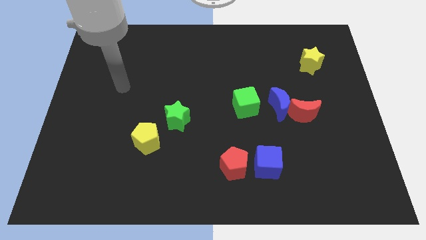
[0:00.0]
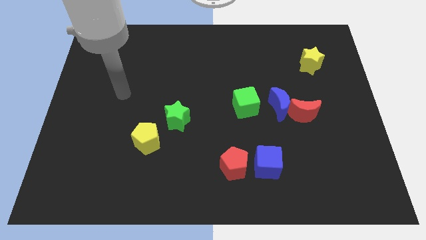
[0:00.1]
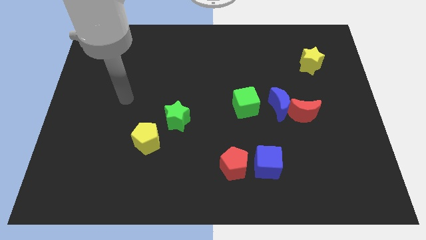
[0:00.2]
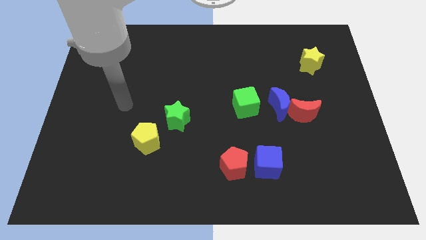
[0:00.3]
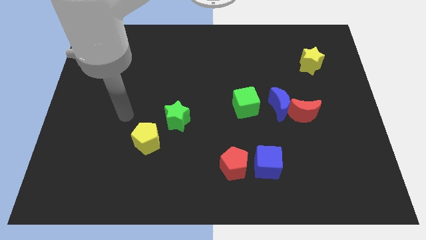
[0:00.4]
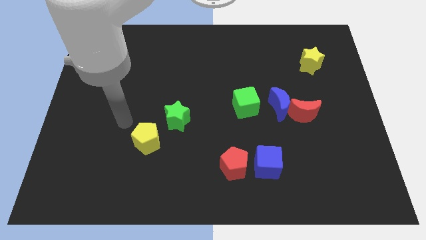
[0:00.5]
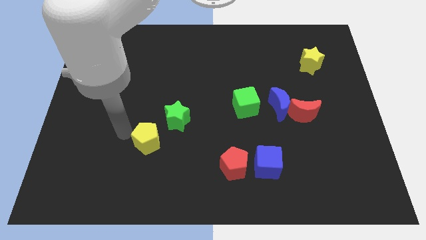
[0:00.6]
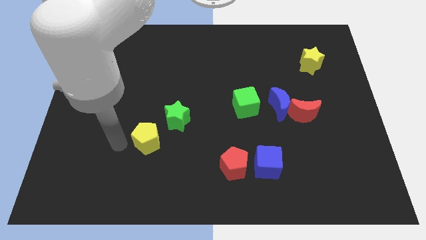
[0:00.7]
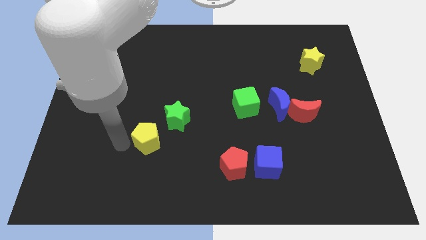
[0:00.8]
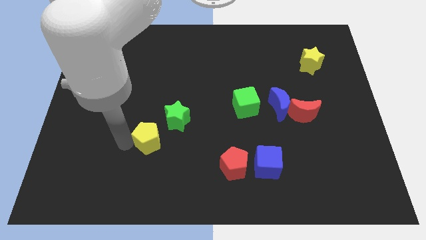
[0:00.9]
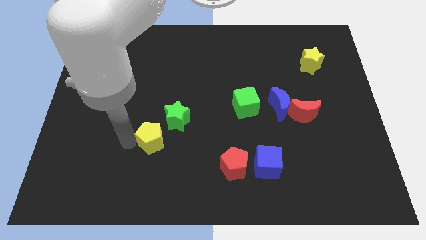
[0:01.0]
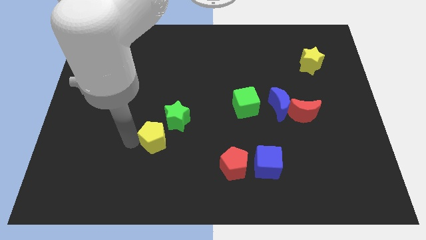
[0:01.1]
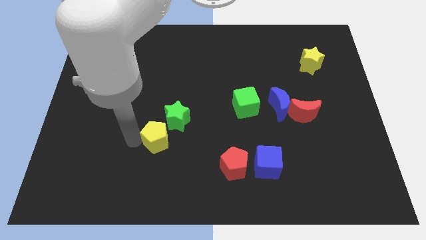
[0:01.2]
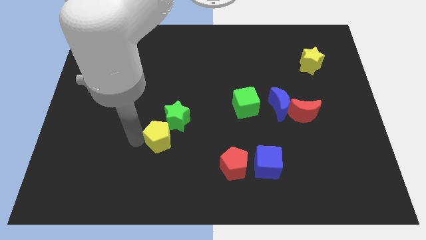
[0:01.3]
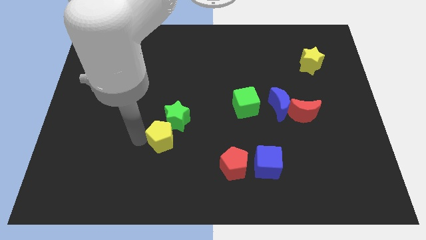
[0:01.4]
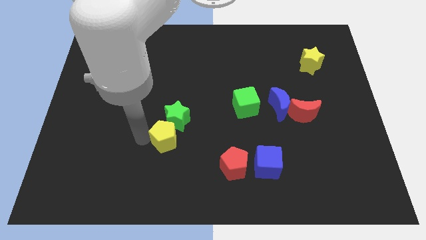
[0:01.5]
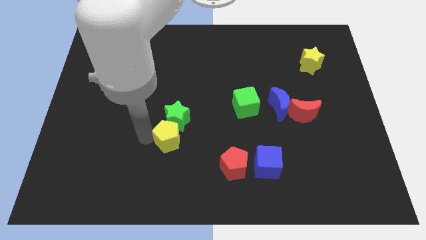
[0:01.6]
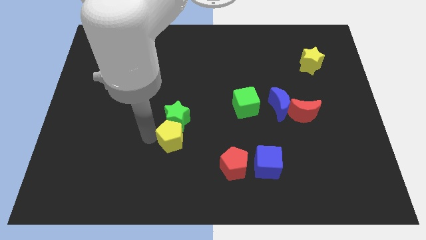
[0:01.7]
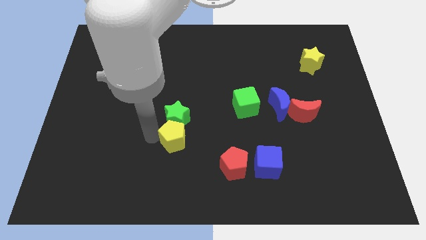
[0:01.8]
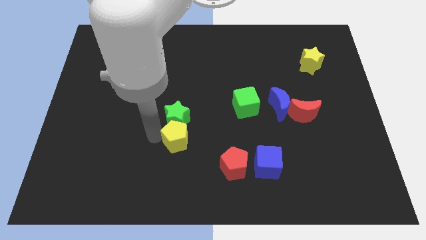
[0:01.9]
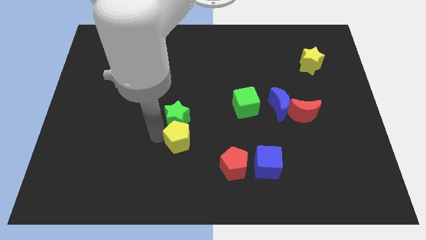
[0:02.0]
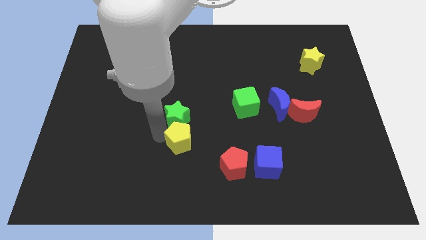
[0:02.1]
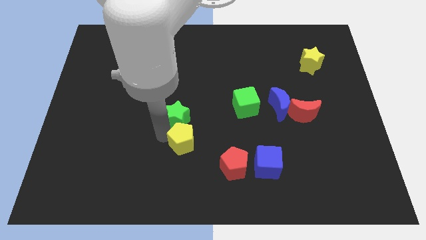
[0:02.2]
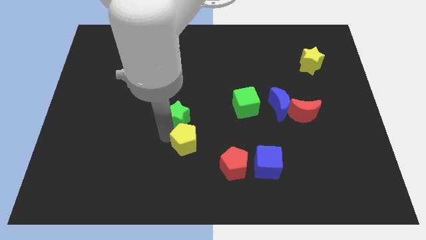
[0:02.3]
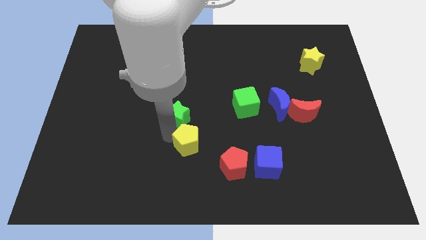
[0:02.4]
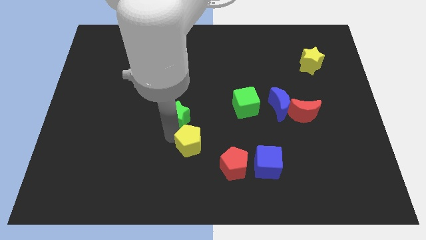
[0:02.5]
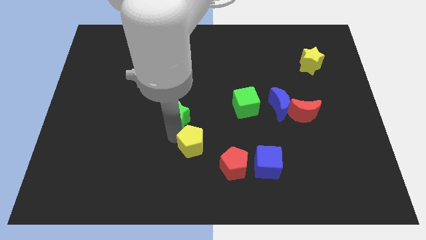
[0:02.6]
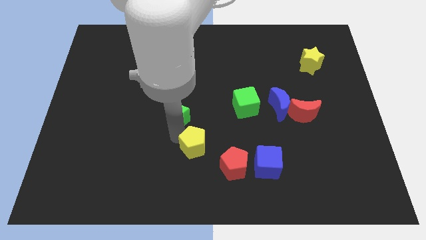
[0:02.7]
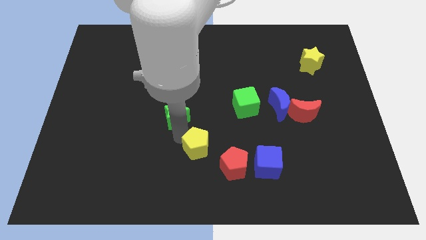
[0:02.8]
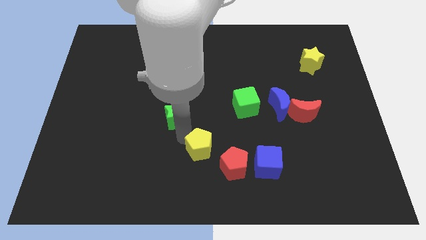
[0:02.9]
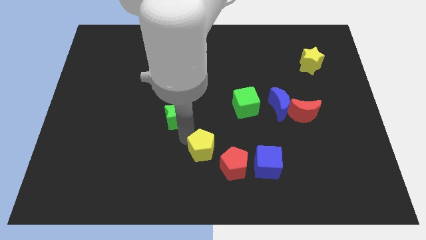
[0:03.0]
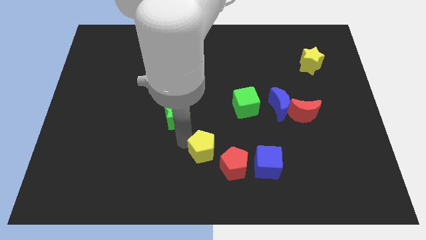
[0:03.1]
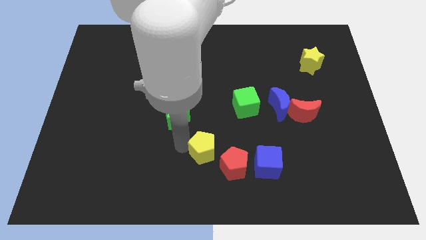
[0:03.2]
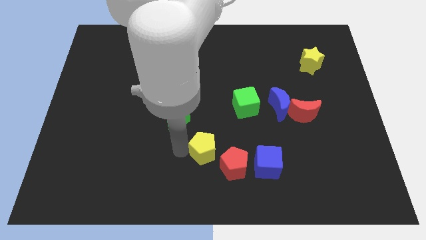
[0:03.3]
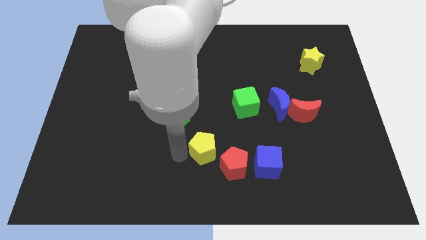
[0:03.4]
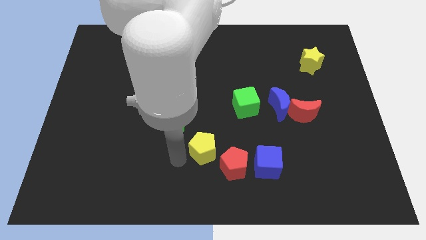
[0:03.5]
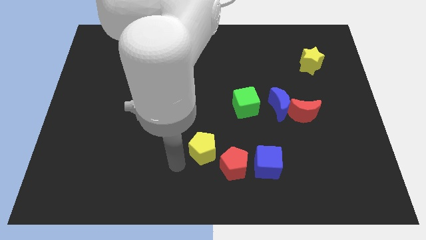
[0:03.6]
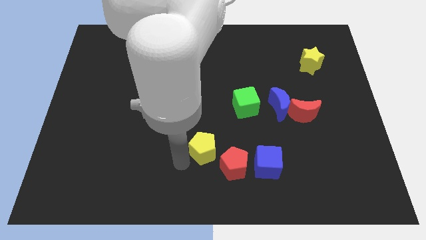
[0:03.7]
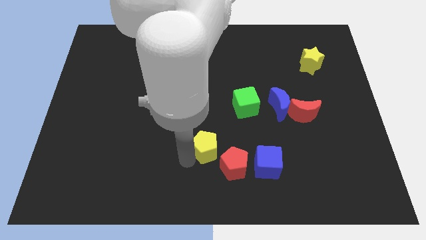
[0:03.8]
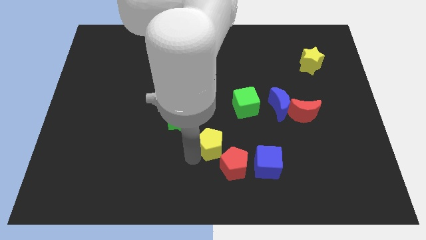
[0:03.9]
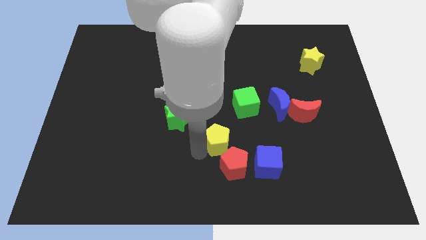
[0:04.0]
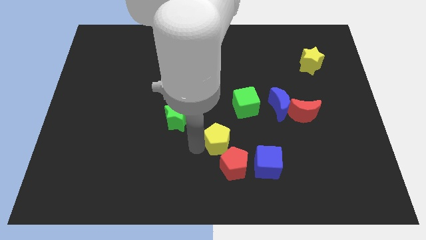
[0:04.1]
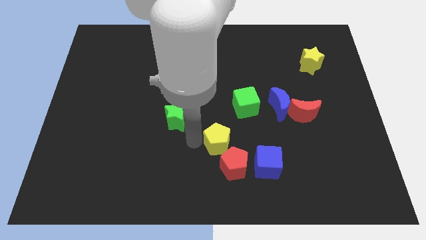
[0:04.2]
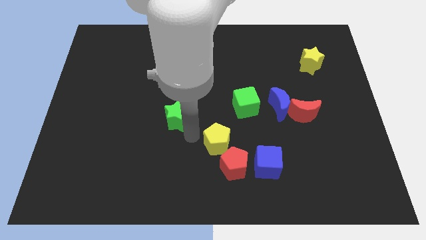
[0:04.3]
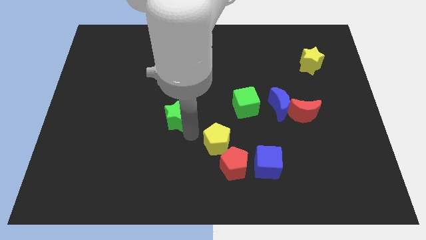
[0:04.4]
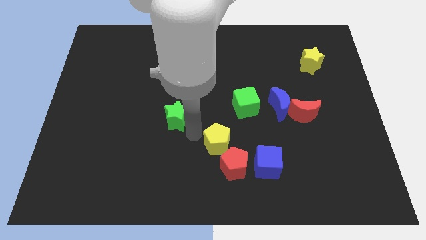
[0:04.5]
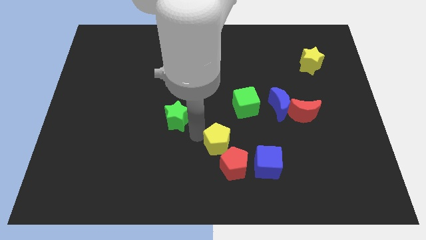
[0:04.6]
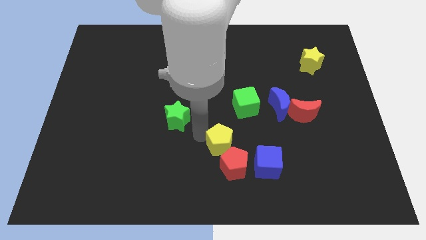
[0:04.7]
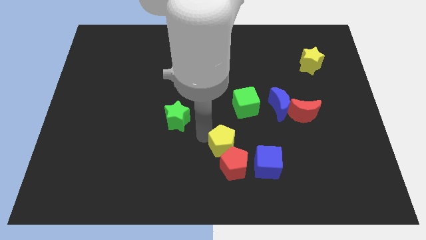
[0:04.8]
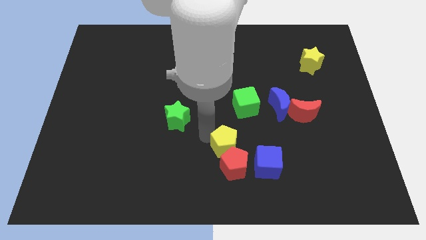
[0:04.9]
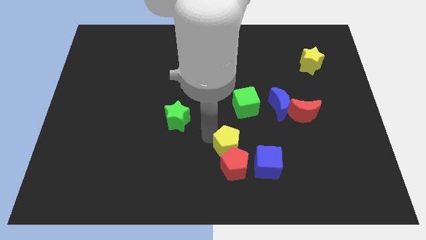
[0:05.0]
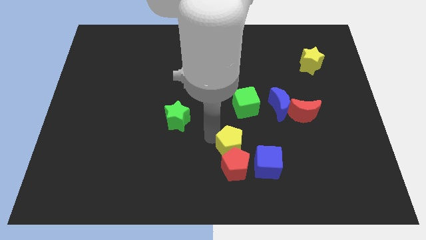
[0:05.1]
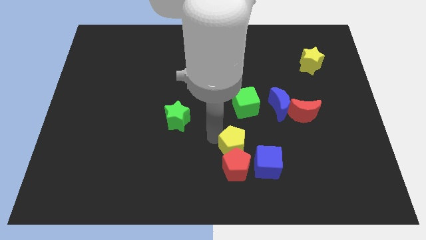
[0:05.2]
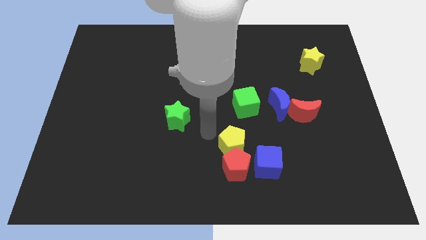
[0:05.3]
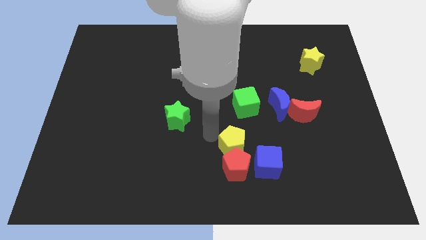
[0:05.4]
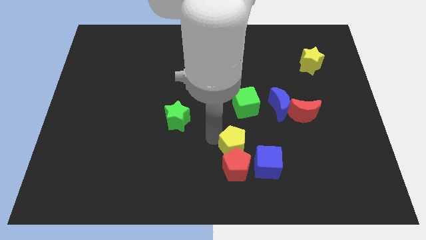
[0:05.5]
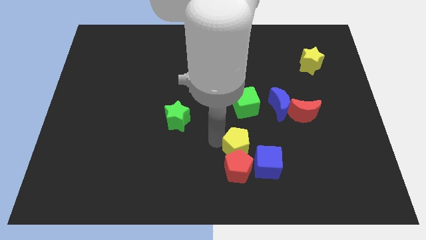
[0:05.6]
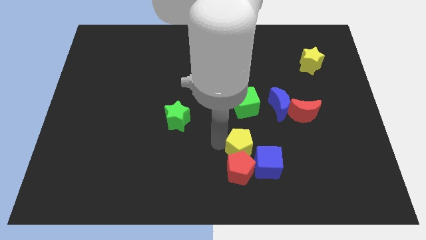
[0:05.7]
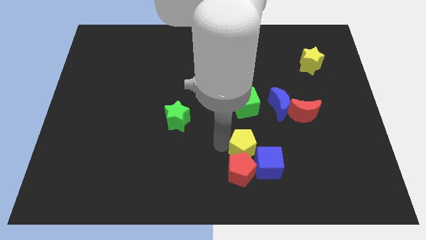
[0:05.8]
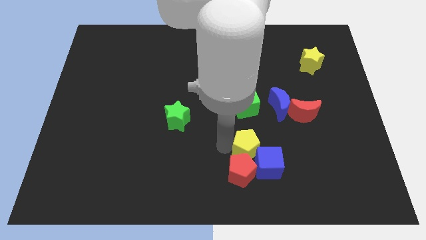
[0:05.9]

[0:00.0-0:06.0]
slide the yellow pentagon to the blue cube
